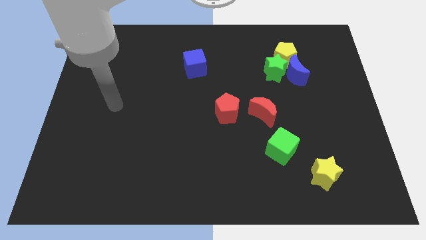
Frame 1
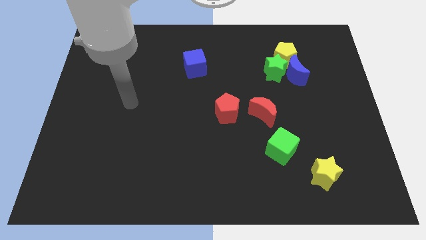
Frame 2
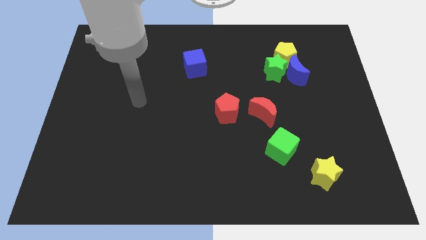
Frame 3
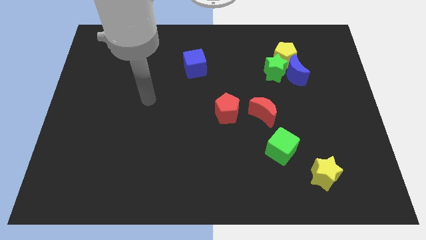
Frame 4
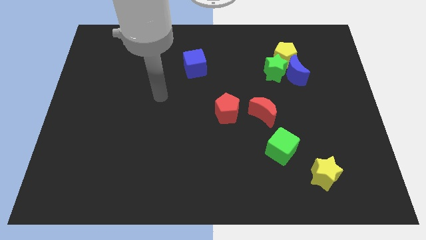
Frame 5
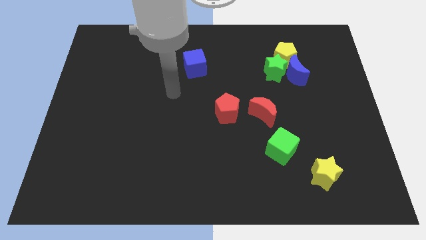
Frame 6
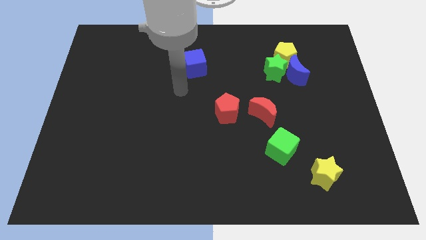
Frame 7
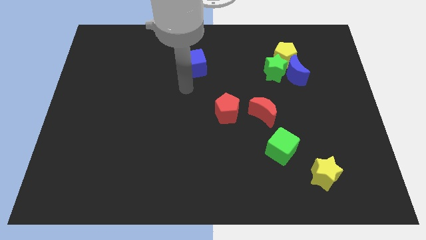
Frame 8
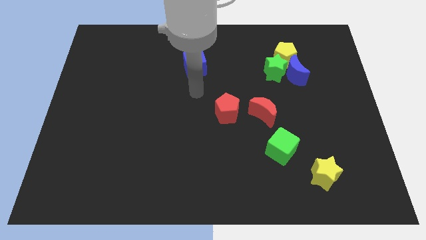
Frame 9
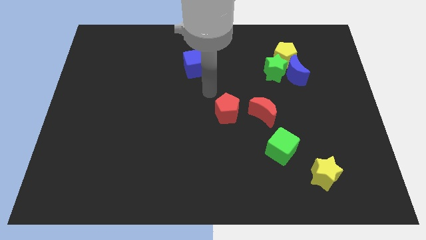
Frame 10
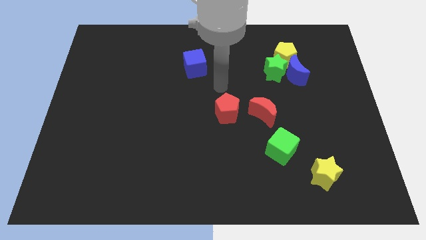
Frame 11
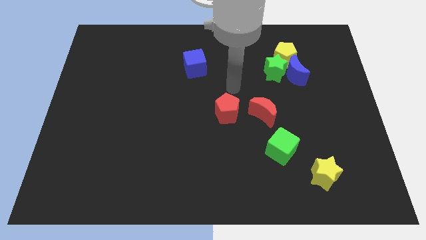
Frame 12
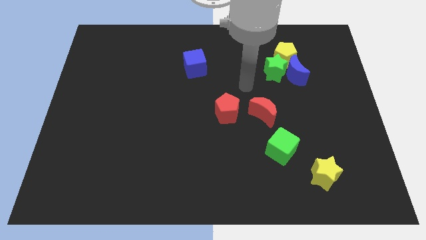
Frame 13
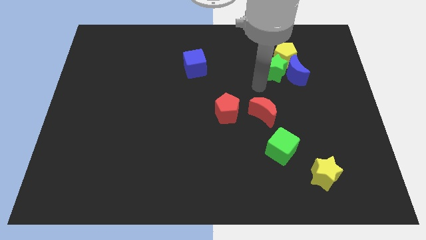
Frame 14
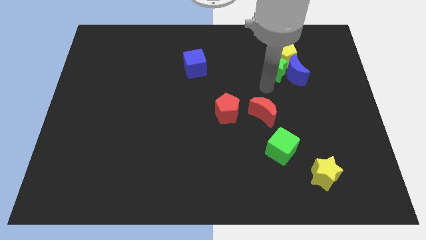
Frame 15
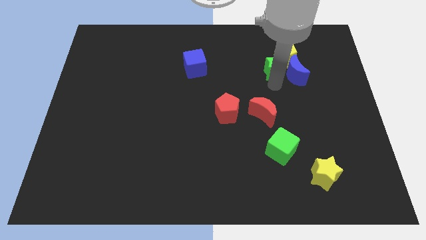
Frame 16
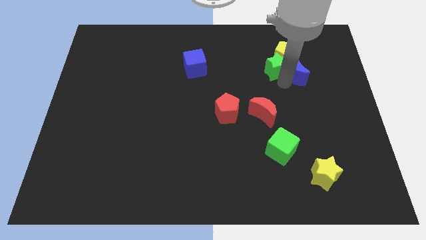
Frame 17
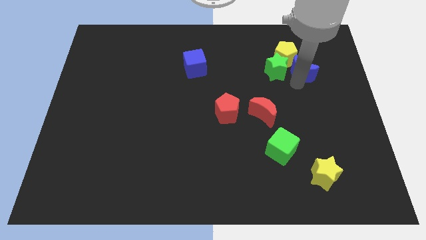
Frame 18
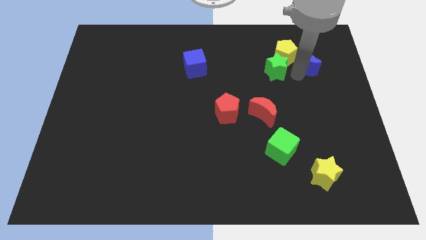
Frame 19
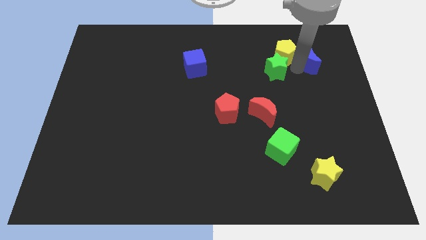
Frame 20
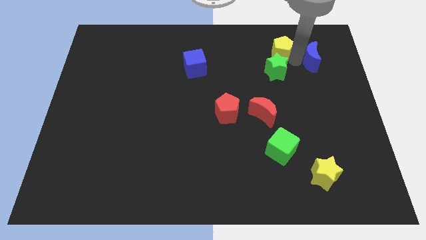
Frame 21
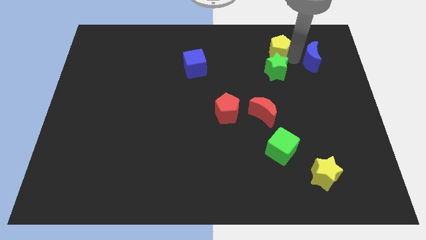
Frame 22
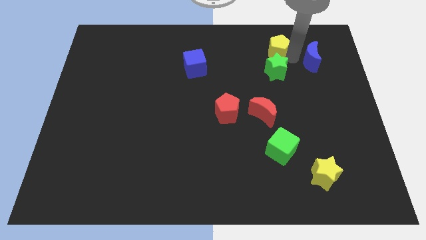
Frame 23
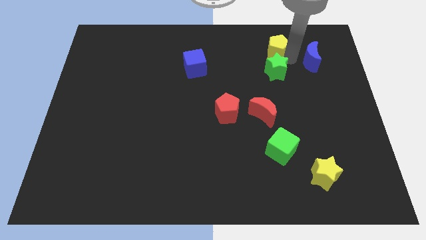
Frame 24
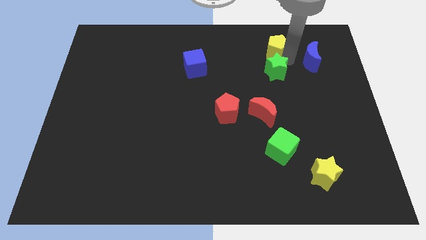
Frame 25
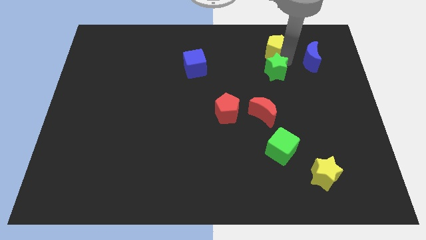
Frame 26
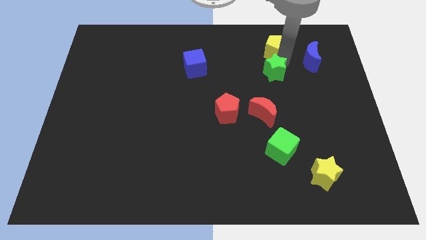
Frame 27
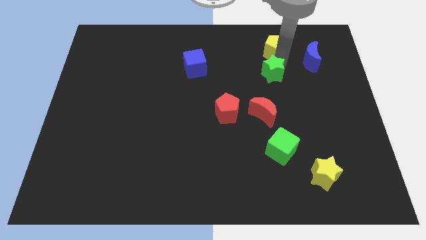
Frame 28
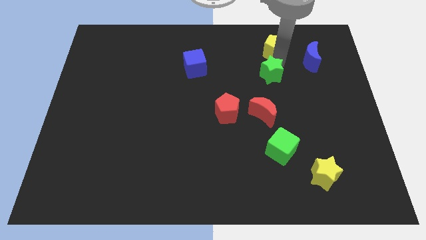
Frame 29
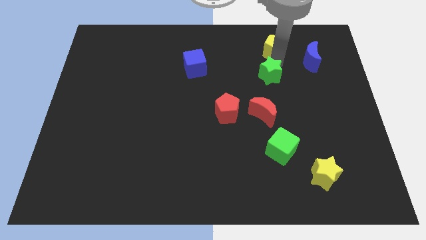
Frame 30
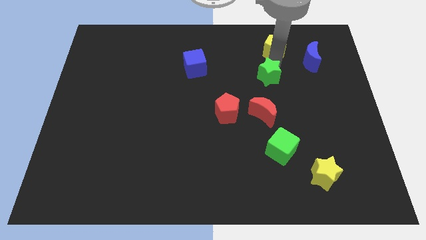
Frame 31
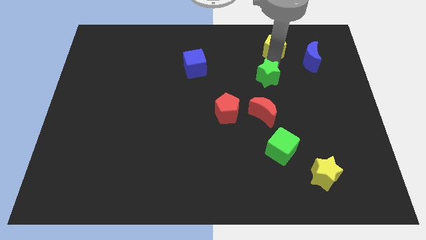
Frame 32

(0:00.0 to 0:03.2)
pull the green star apart from the blue moon and yellow pentagon

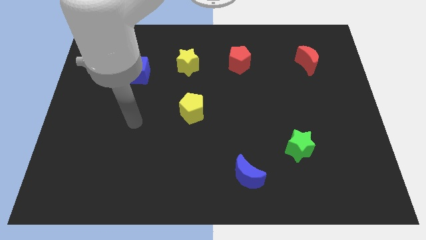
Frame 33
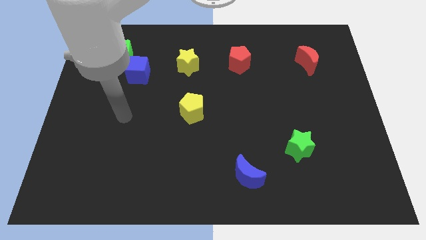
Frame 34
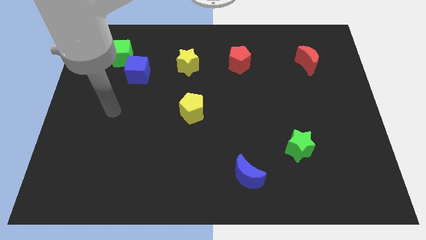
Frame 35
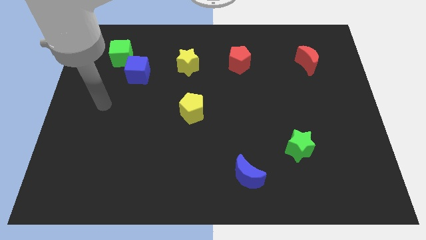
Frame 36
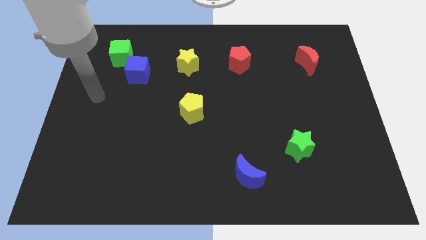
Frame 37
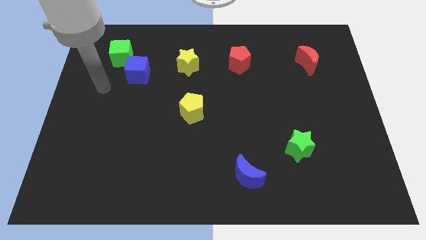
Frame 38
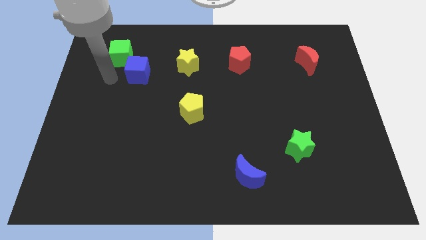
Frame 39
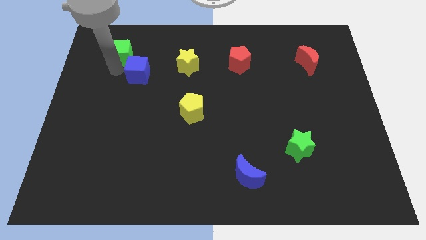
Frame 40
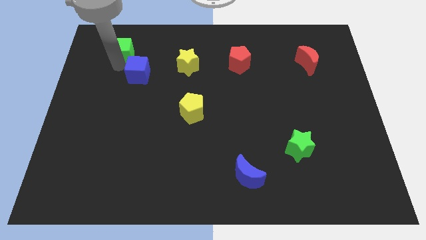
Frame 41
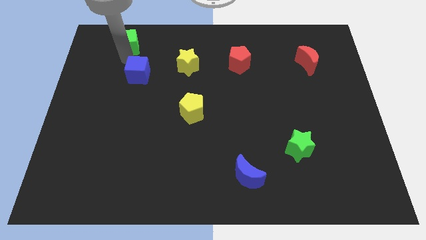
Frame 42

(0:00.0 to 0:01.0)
separate the blue cube from the green cube

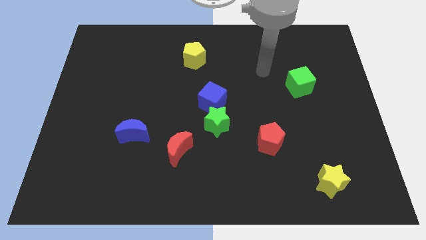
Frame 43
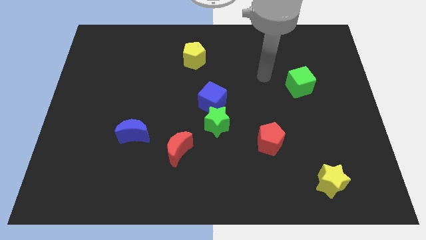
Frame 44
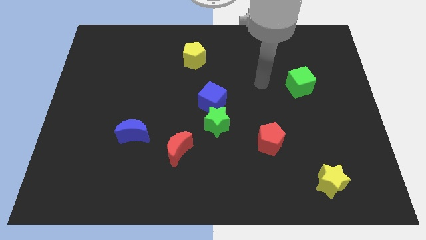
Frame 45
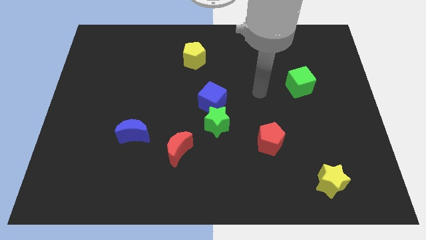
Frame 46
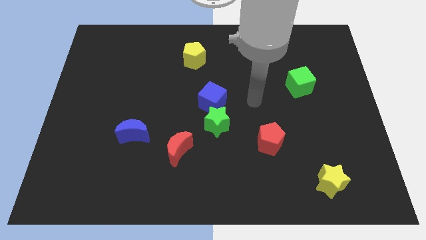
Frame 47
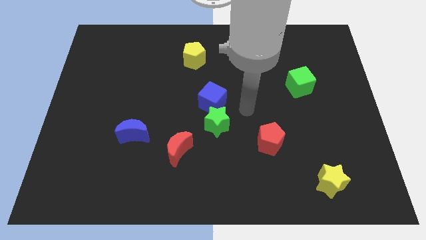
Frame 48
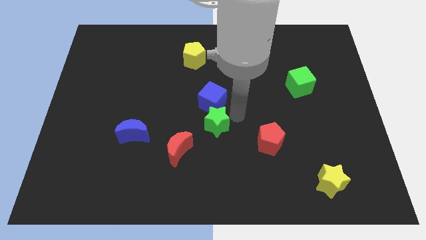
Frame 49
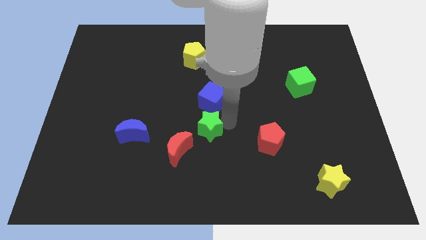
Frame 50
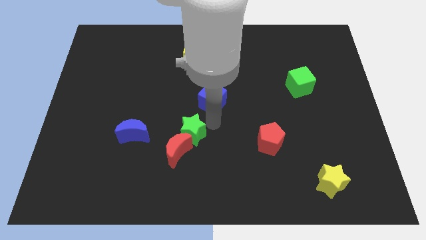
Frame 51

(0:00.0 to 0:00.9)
pull the blue cube apart from the green star

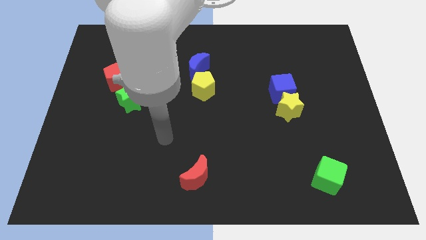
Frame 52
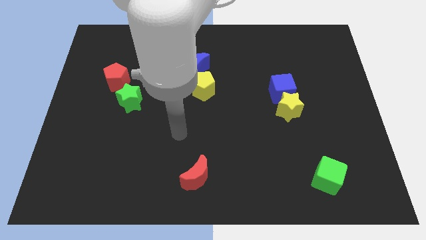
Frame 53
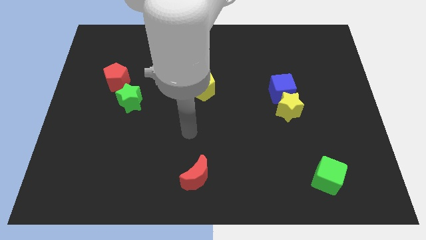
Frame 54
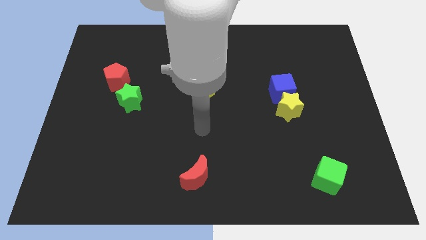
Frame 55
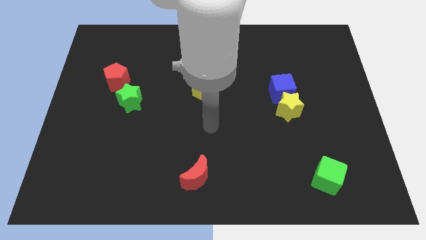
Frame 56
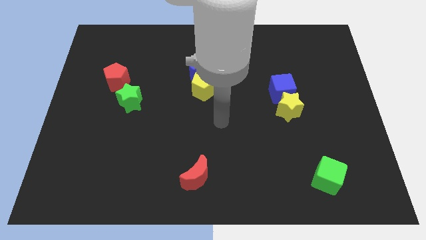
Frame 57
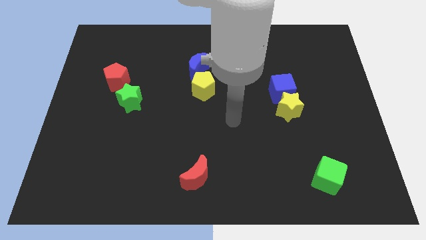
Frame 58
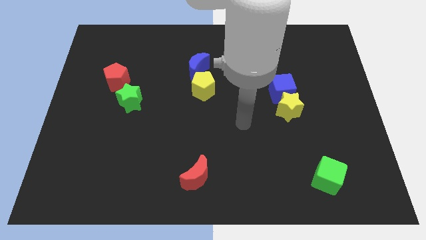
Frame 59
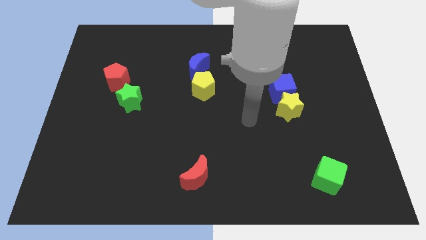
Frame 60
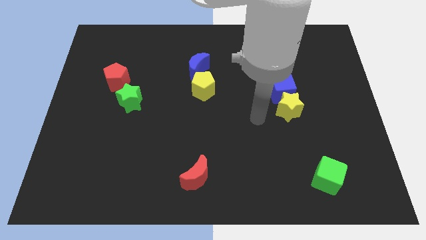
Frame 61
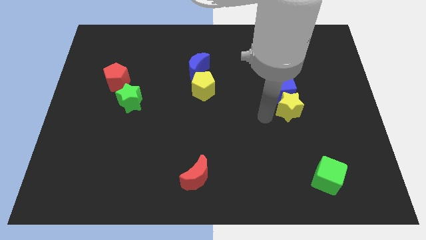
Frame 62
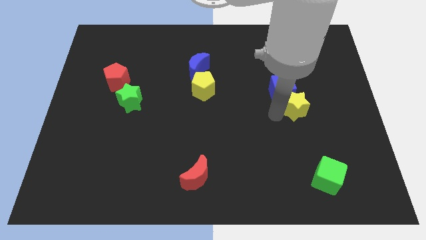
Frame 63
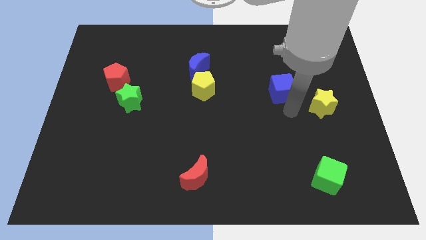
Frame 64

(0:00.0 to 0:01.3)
move the blue cube away from the yellow star

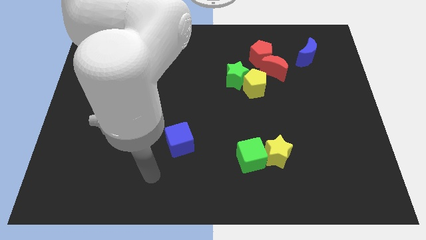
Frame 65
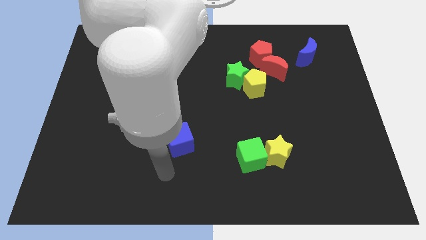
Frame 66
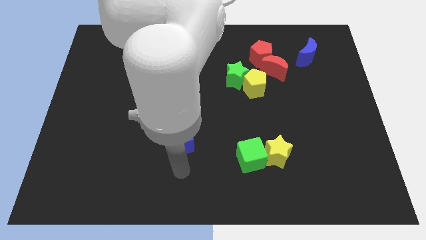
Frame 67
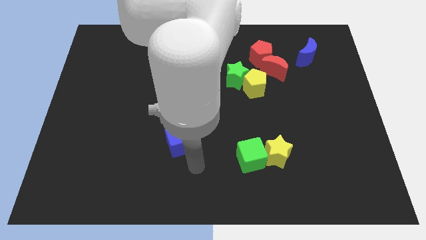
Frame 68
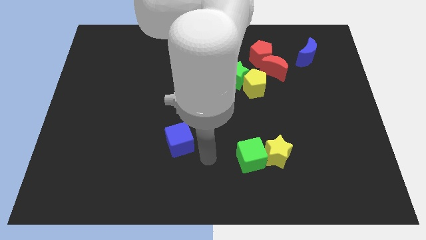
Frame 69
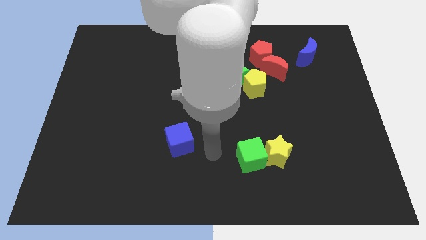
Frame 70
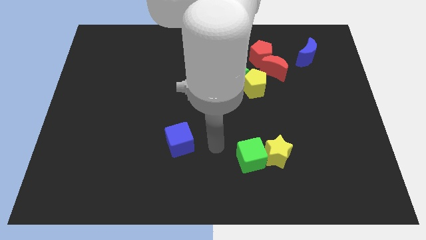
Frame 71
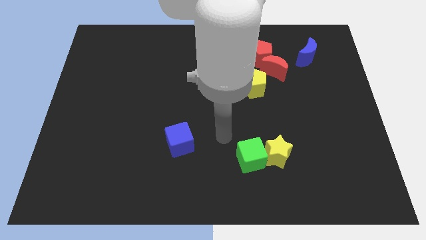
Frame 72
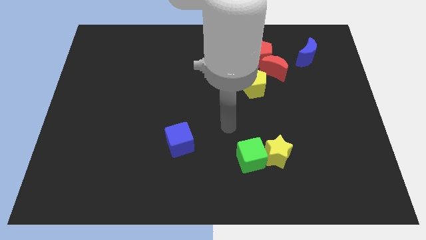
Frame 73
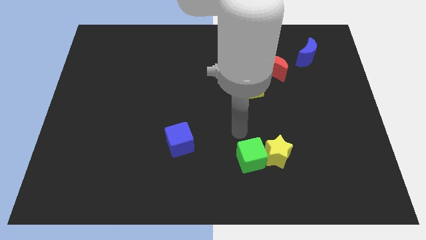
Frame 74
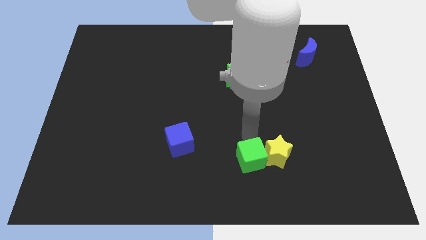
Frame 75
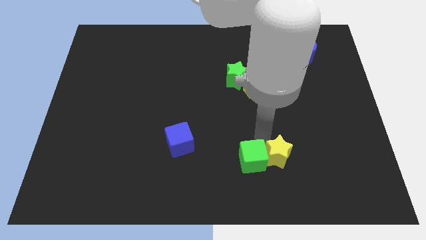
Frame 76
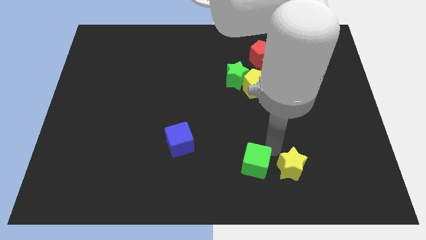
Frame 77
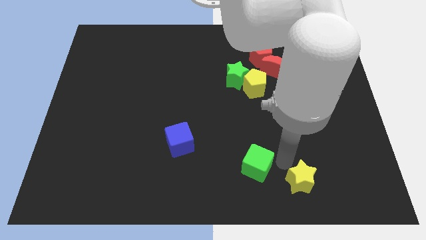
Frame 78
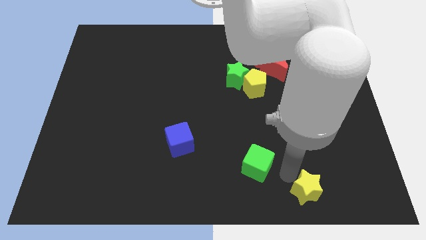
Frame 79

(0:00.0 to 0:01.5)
pull the green cube apart from the yellow star

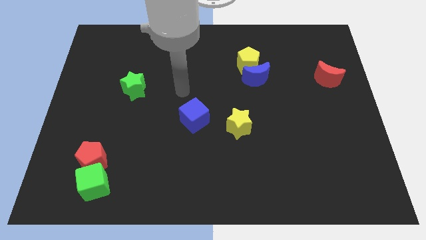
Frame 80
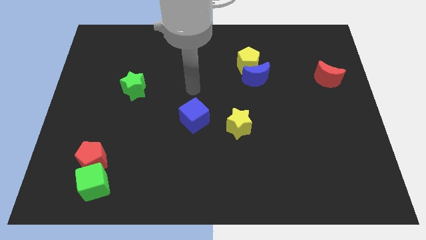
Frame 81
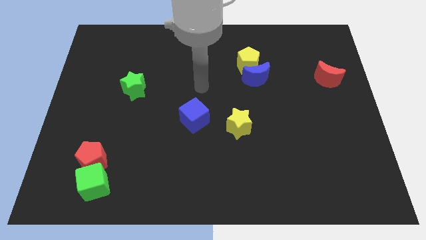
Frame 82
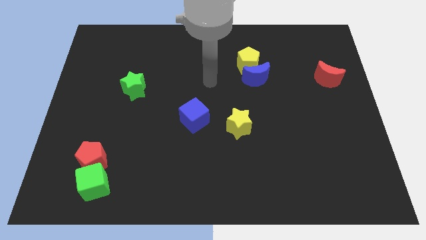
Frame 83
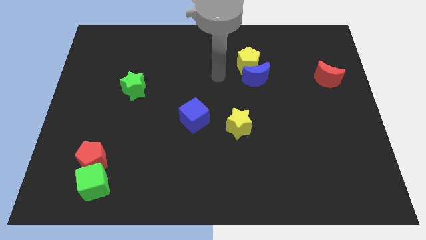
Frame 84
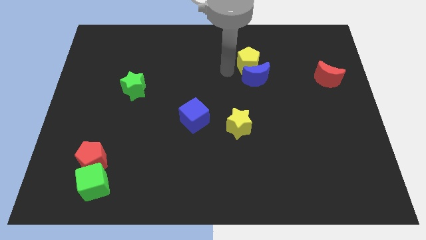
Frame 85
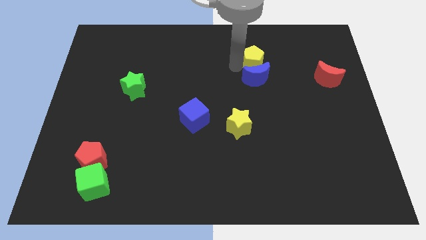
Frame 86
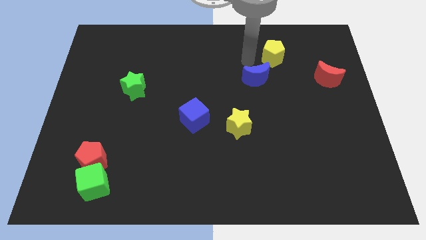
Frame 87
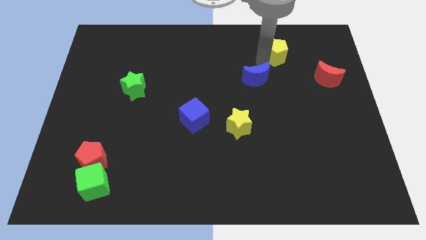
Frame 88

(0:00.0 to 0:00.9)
move the blue moon away from the yellow pentagon

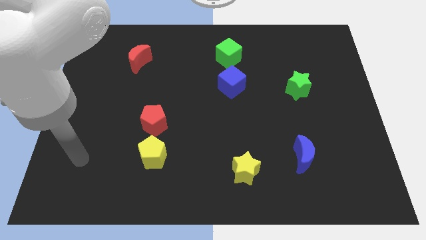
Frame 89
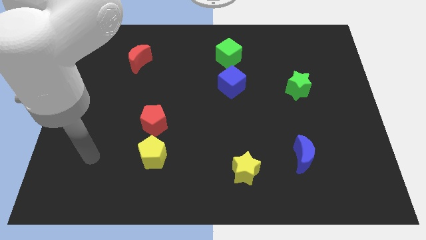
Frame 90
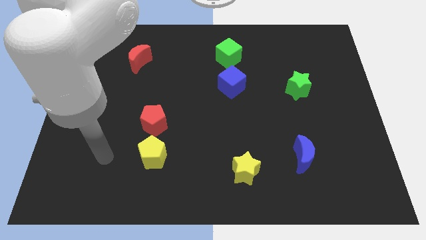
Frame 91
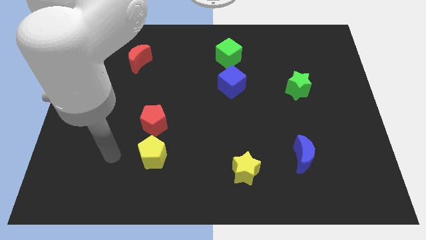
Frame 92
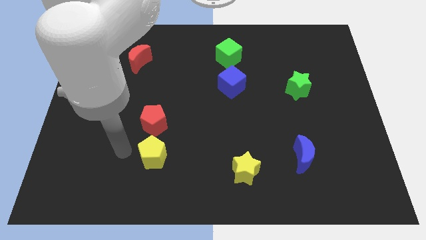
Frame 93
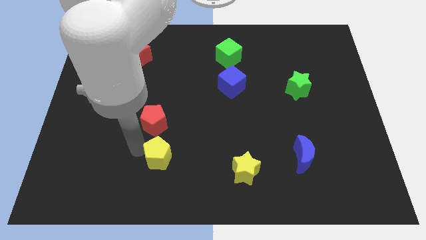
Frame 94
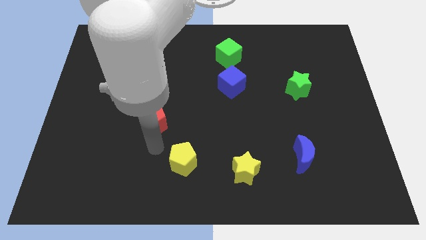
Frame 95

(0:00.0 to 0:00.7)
move the red pentagon away from the yellow pentagon
